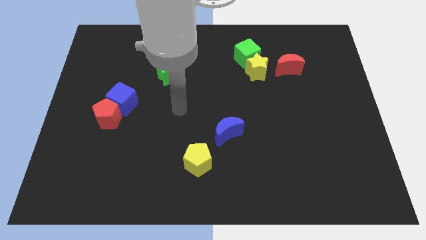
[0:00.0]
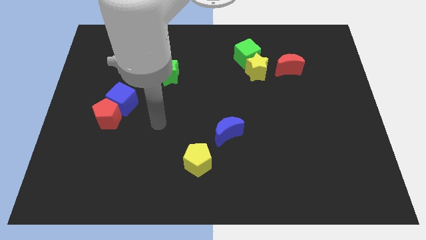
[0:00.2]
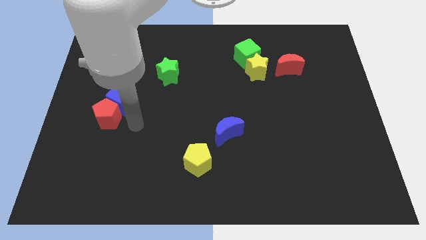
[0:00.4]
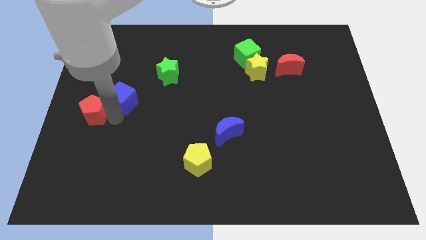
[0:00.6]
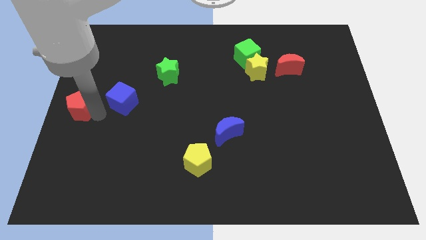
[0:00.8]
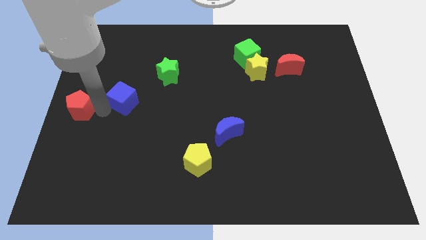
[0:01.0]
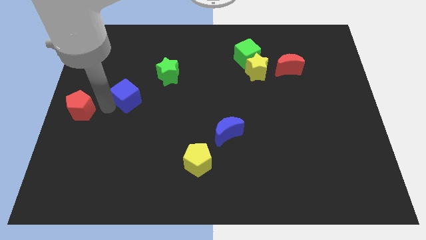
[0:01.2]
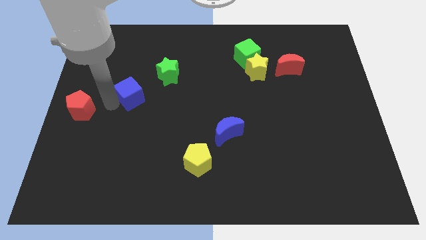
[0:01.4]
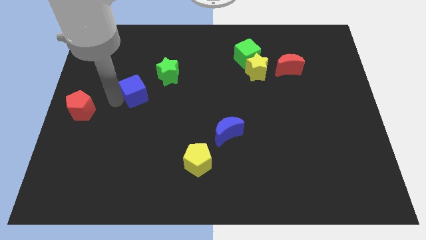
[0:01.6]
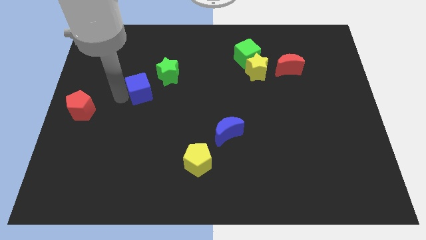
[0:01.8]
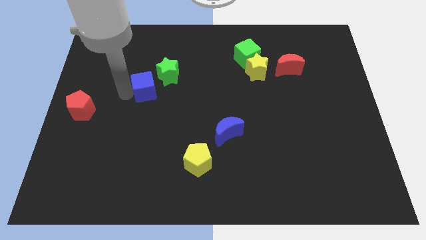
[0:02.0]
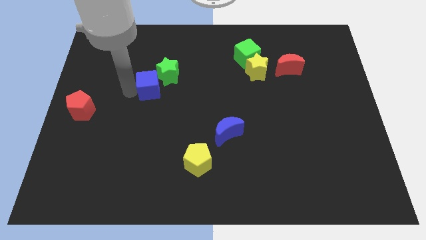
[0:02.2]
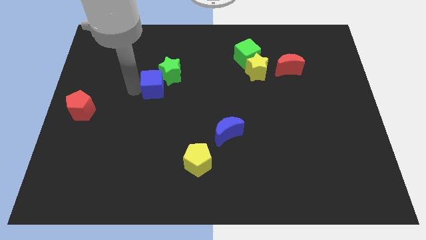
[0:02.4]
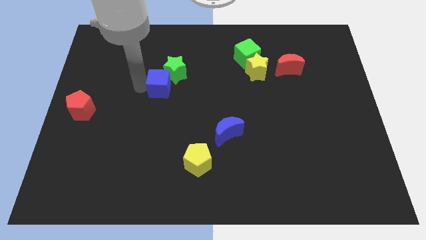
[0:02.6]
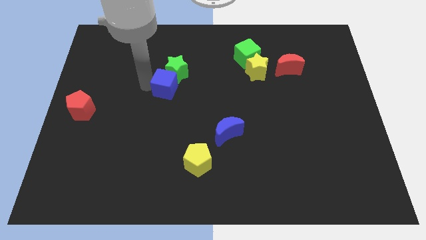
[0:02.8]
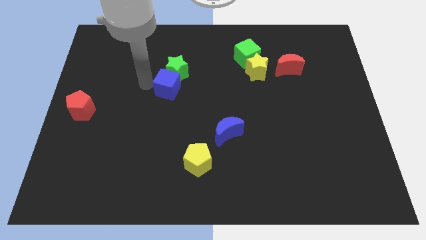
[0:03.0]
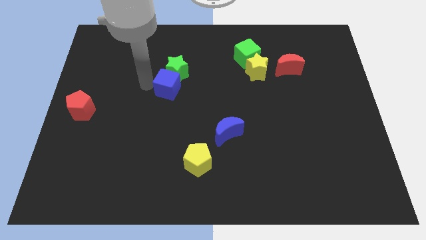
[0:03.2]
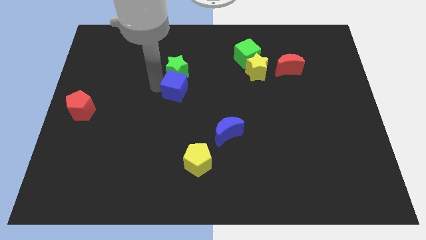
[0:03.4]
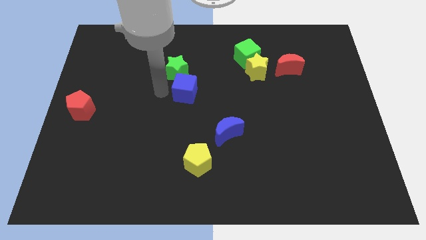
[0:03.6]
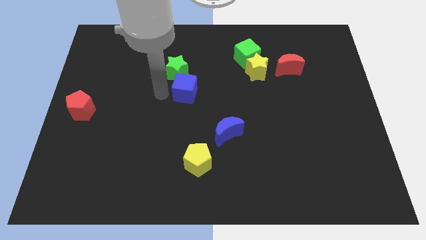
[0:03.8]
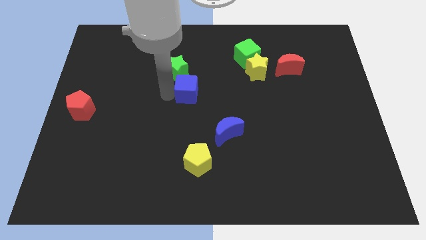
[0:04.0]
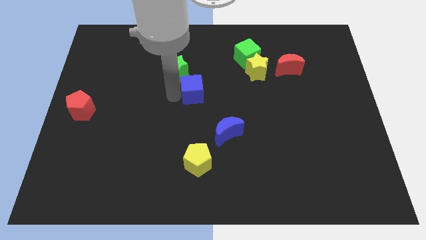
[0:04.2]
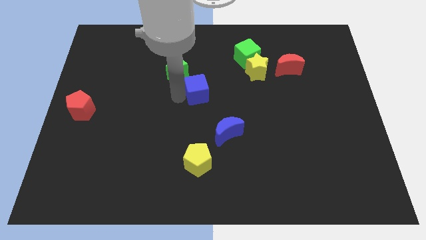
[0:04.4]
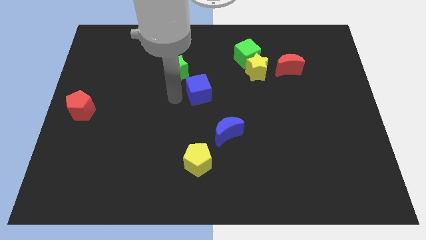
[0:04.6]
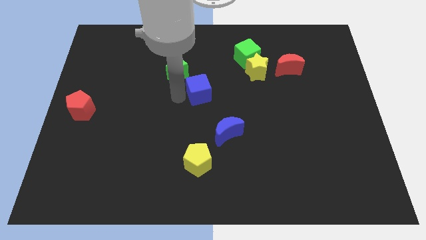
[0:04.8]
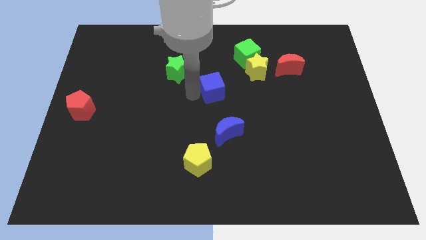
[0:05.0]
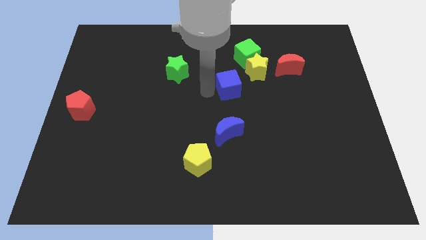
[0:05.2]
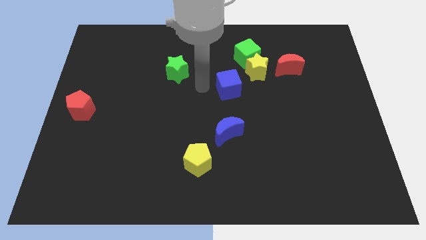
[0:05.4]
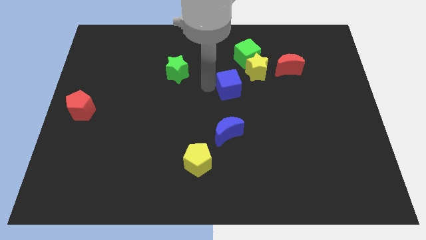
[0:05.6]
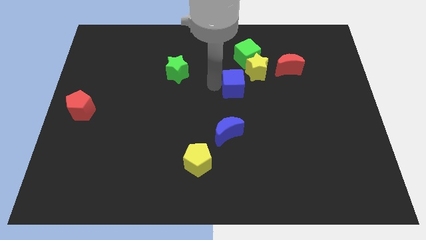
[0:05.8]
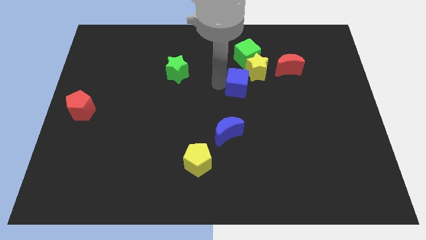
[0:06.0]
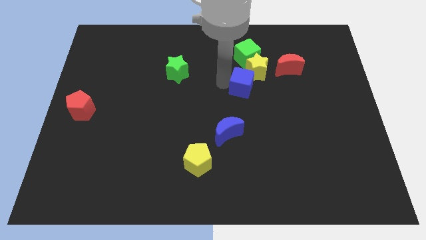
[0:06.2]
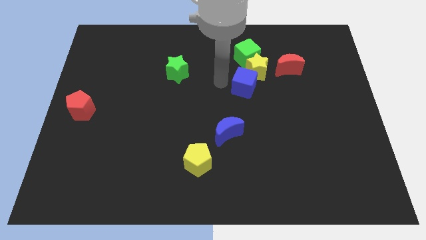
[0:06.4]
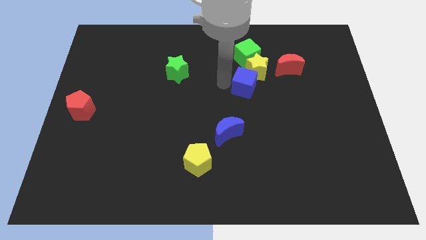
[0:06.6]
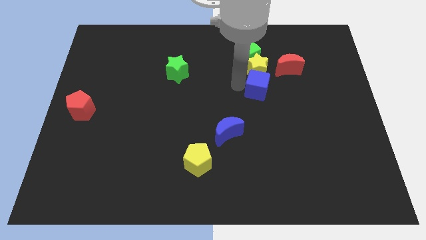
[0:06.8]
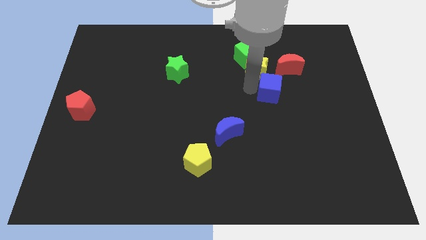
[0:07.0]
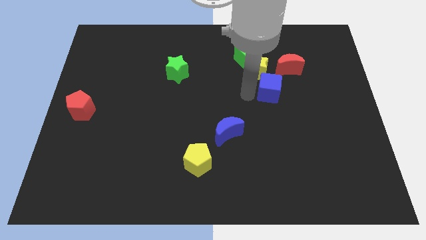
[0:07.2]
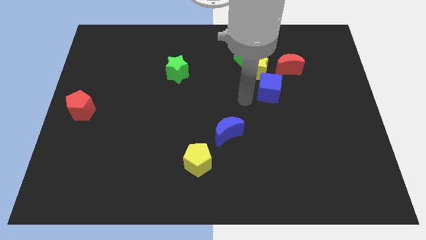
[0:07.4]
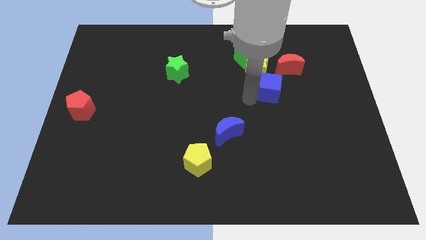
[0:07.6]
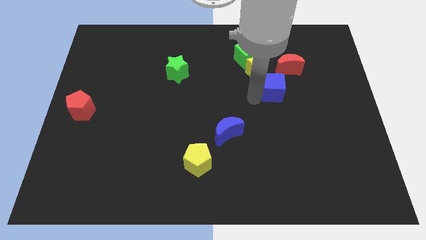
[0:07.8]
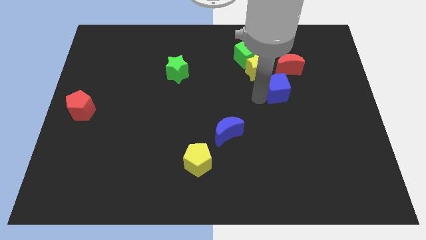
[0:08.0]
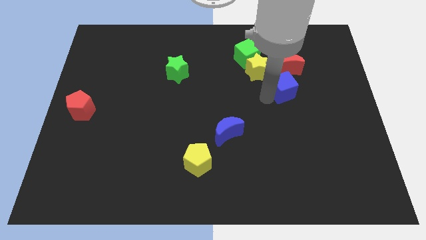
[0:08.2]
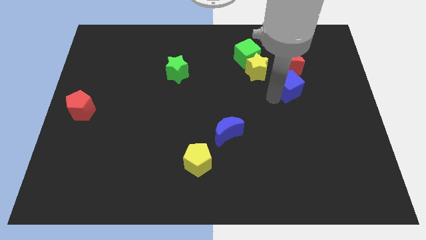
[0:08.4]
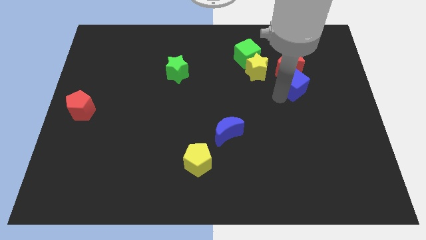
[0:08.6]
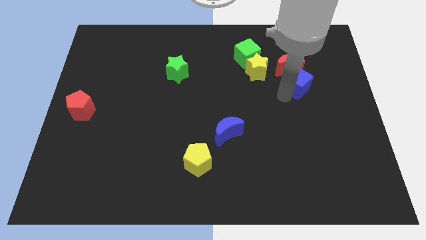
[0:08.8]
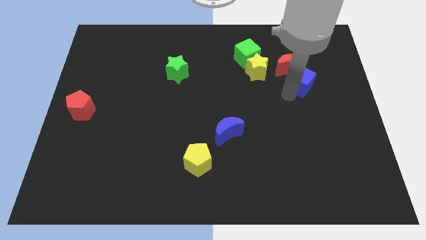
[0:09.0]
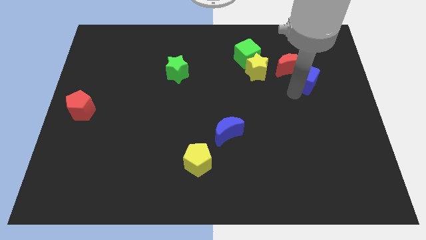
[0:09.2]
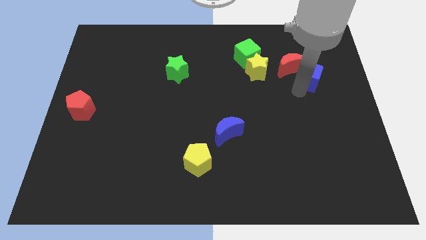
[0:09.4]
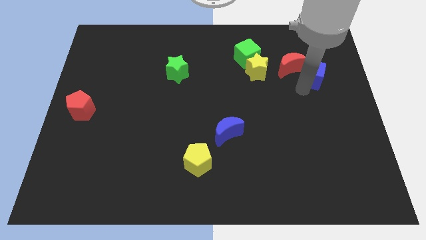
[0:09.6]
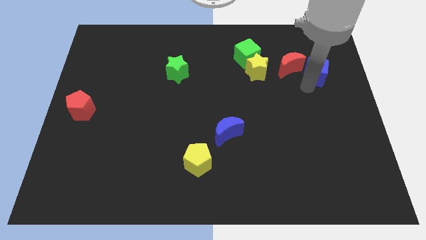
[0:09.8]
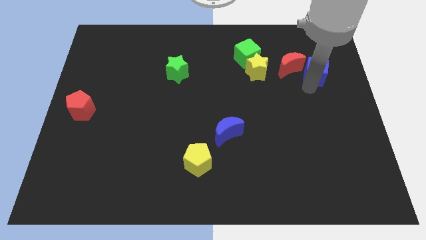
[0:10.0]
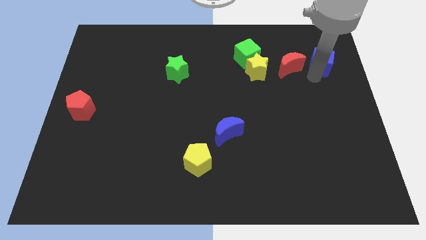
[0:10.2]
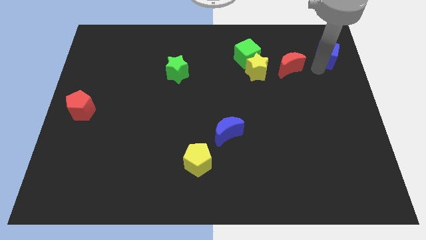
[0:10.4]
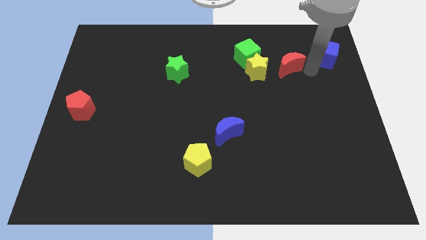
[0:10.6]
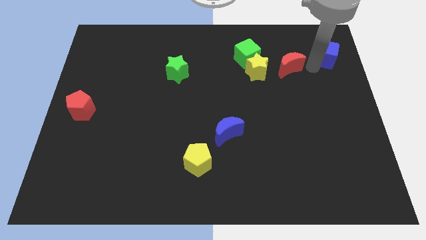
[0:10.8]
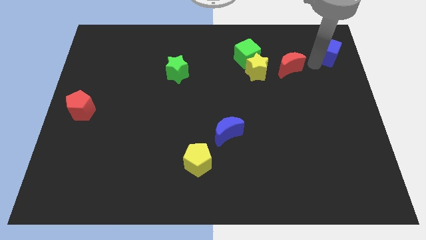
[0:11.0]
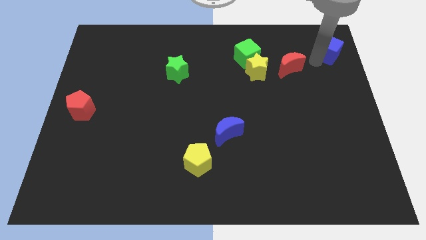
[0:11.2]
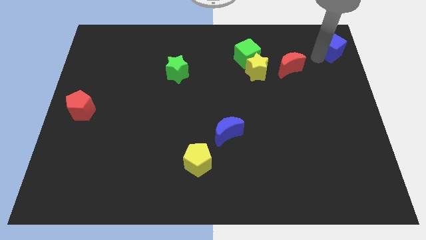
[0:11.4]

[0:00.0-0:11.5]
move the blue cube to the top right of the board

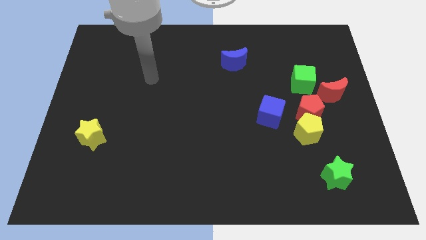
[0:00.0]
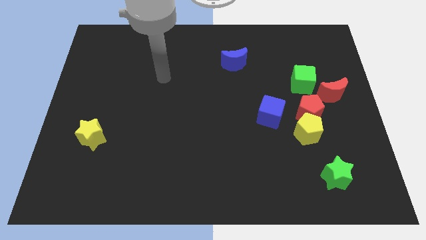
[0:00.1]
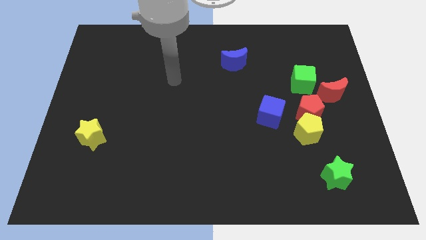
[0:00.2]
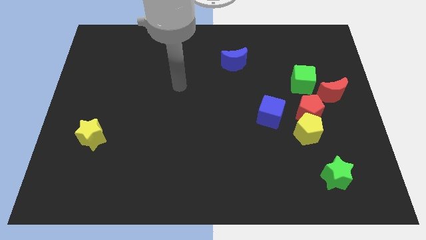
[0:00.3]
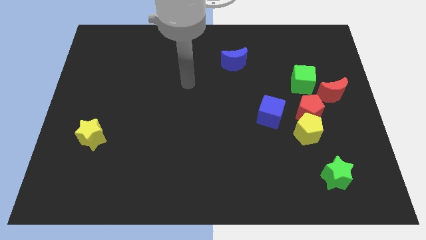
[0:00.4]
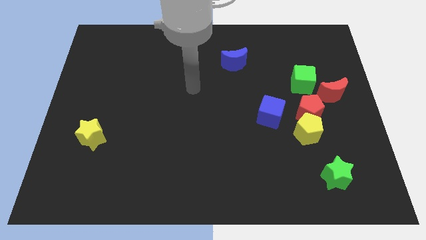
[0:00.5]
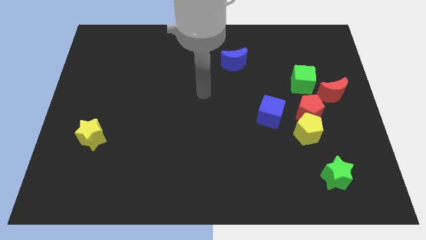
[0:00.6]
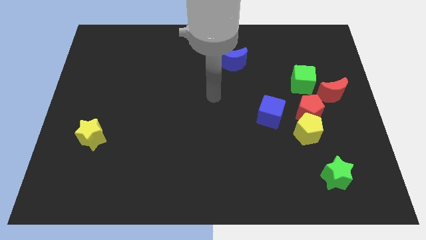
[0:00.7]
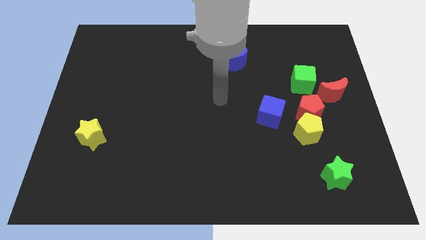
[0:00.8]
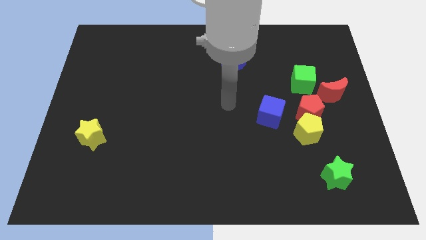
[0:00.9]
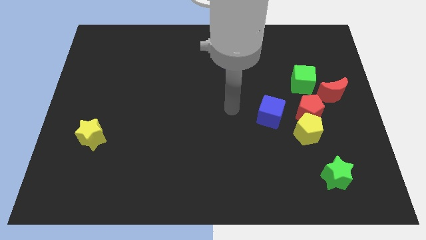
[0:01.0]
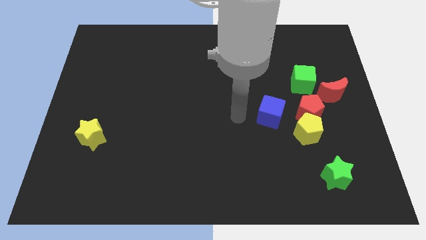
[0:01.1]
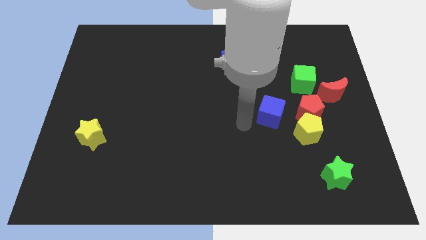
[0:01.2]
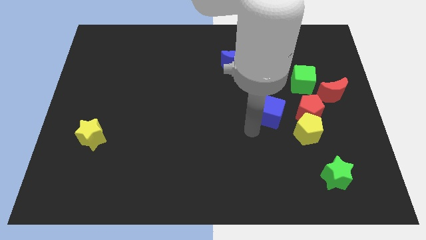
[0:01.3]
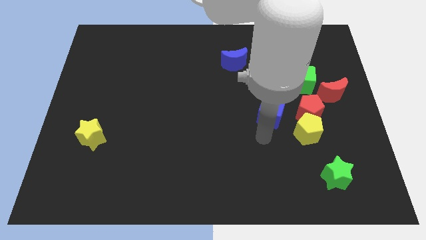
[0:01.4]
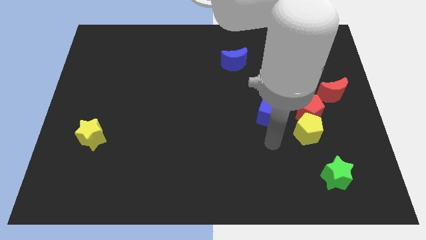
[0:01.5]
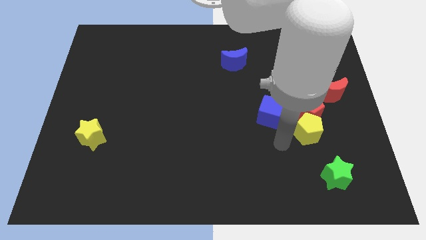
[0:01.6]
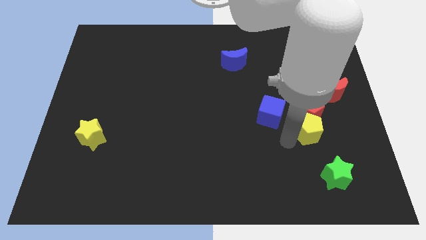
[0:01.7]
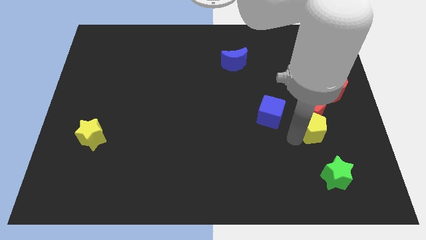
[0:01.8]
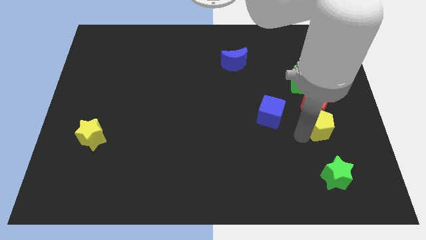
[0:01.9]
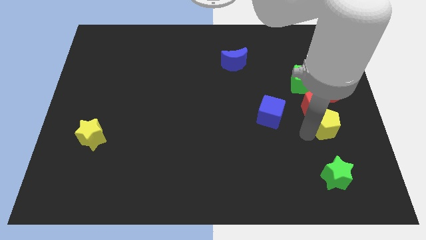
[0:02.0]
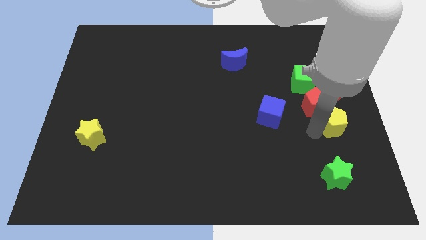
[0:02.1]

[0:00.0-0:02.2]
push the yellow pentagon to the right side of the board
